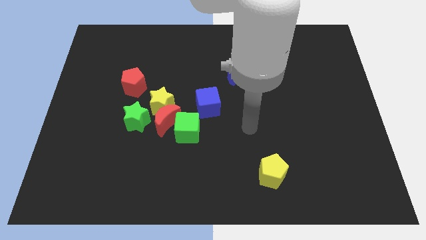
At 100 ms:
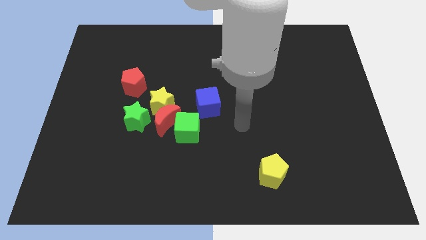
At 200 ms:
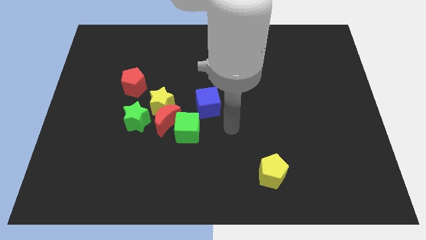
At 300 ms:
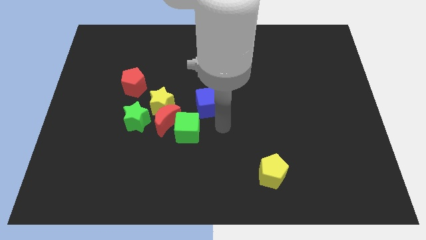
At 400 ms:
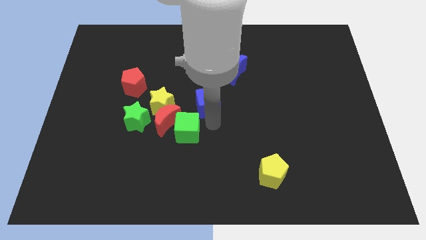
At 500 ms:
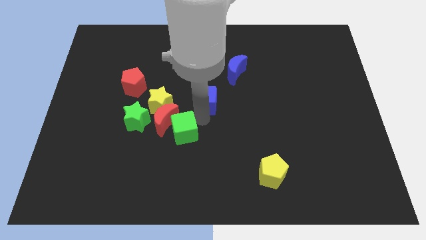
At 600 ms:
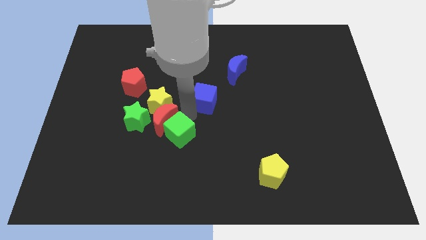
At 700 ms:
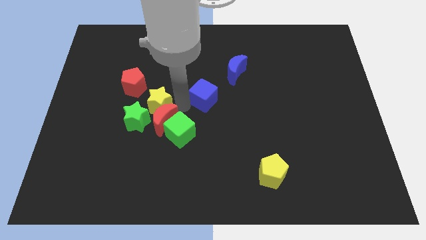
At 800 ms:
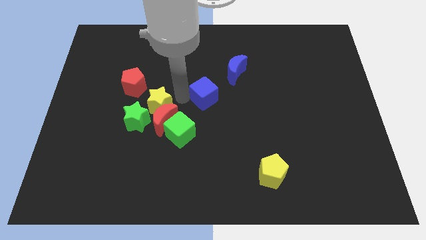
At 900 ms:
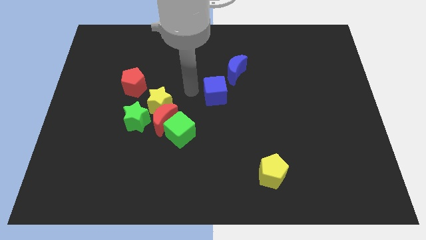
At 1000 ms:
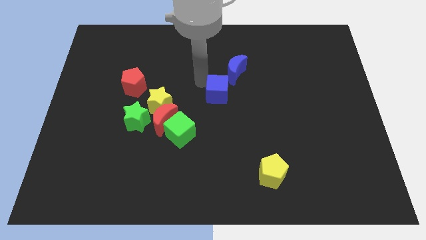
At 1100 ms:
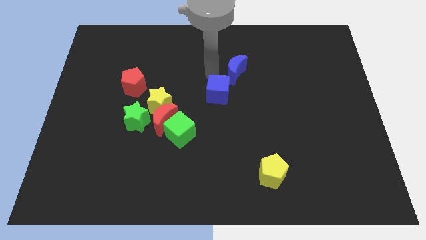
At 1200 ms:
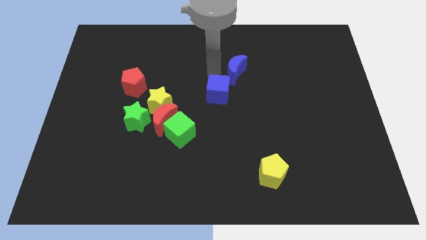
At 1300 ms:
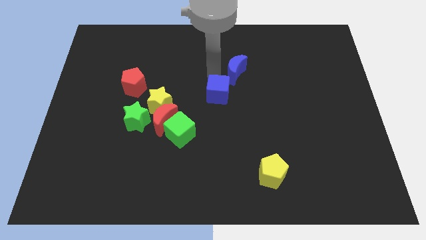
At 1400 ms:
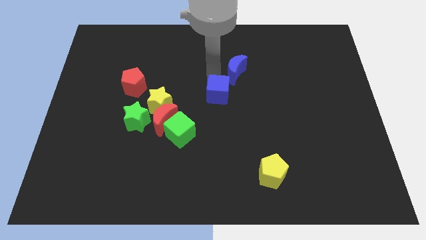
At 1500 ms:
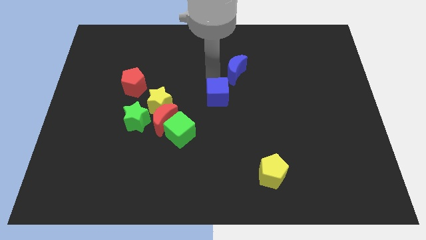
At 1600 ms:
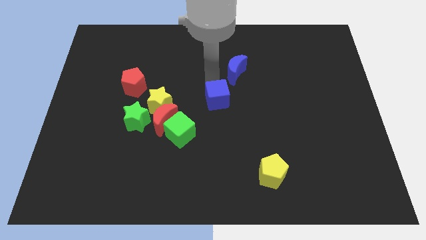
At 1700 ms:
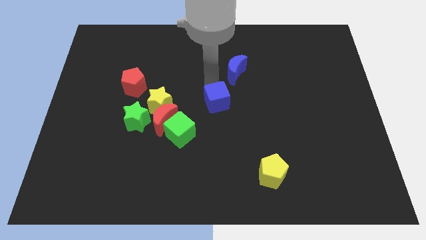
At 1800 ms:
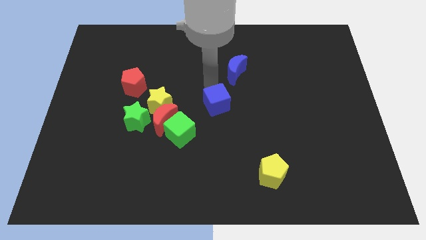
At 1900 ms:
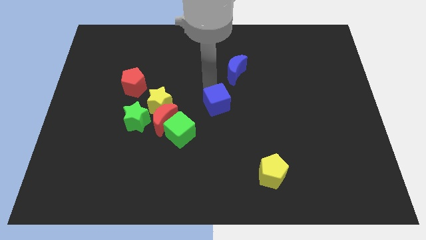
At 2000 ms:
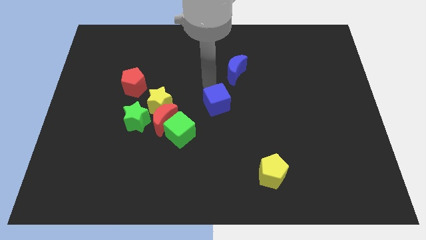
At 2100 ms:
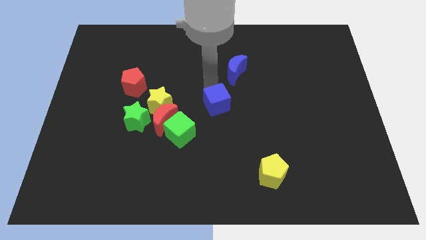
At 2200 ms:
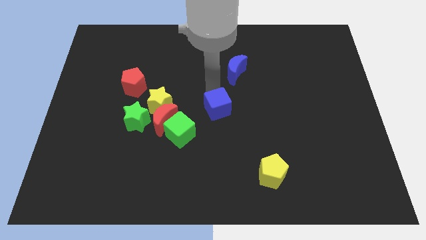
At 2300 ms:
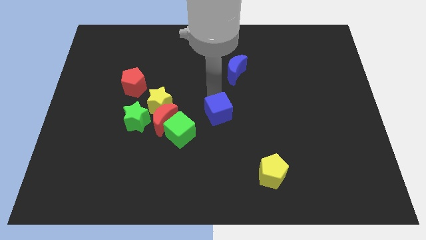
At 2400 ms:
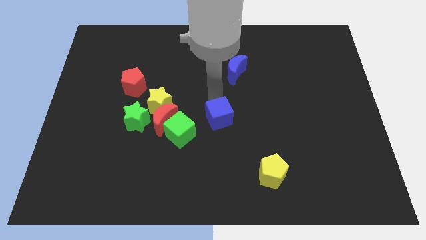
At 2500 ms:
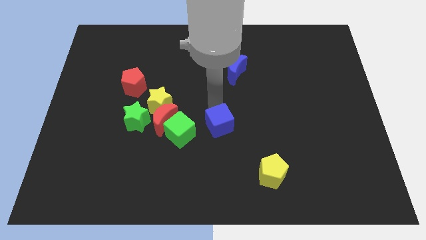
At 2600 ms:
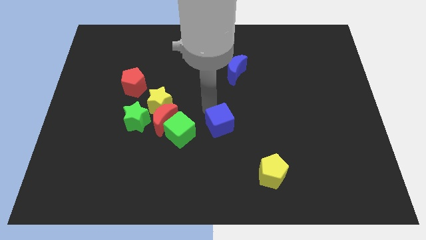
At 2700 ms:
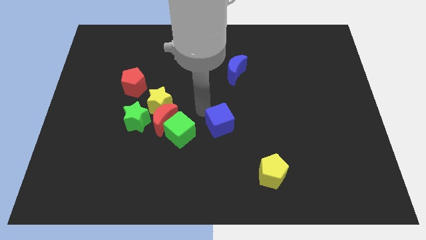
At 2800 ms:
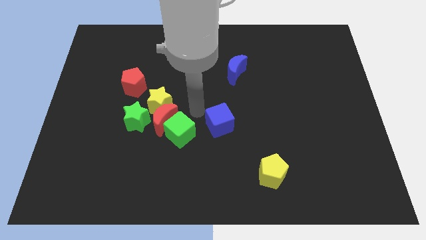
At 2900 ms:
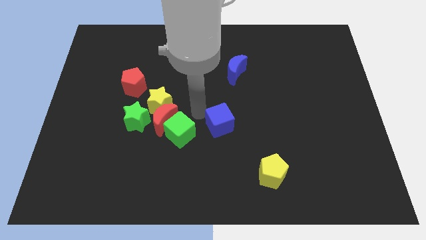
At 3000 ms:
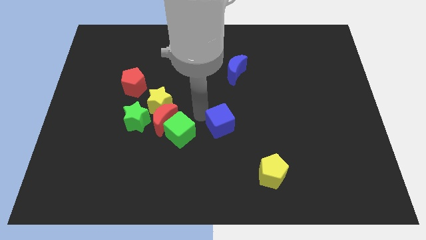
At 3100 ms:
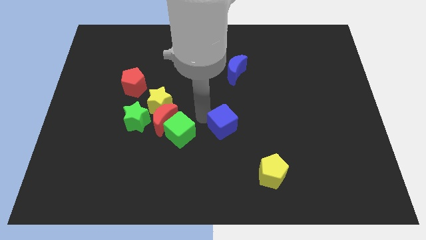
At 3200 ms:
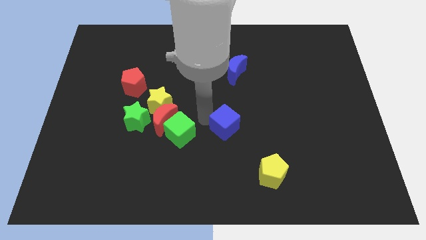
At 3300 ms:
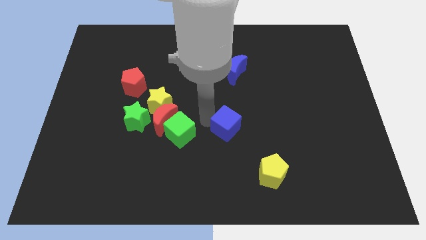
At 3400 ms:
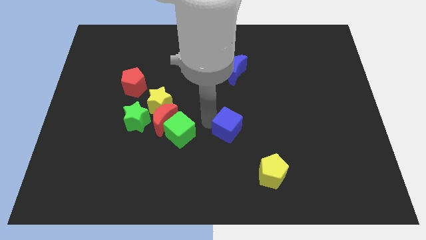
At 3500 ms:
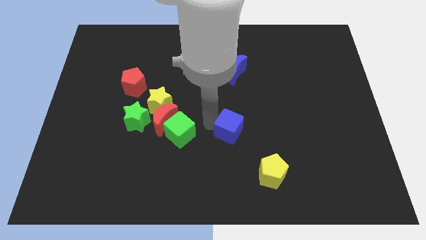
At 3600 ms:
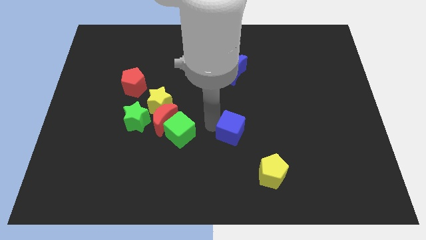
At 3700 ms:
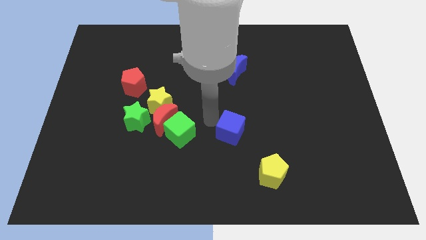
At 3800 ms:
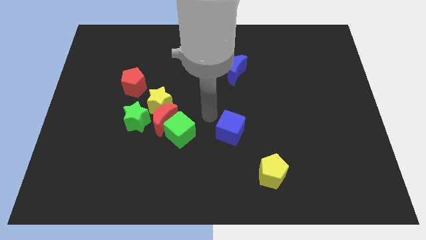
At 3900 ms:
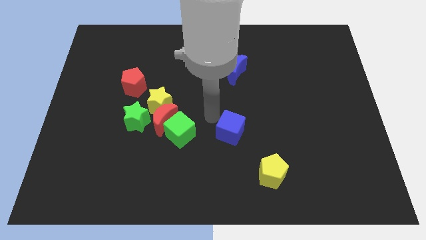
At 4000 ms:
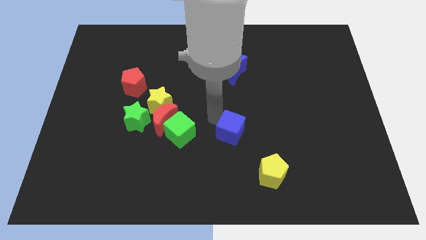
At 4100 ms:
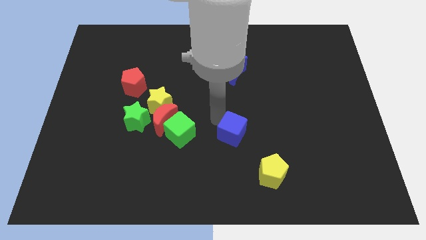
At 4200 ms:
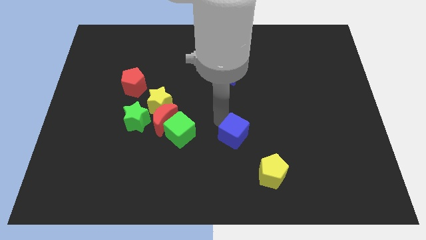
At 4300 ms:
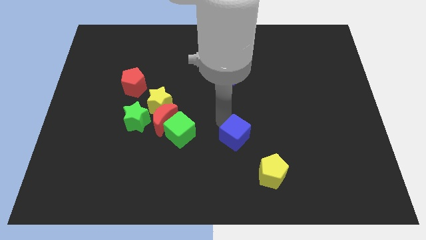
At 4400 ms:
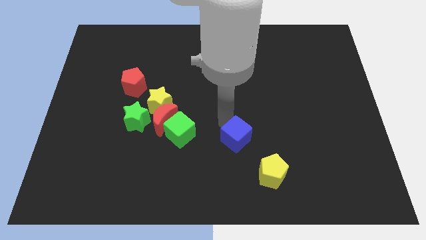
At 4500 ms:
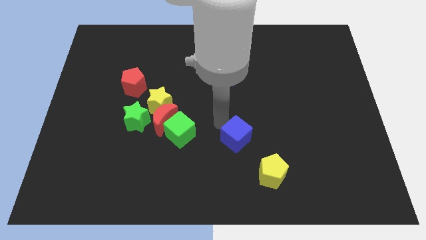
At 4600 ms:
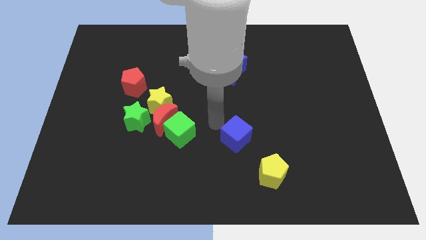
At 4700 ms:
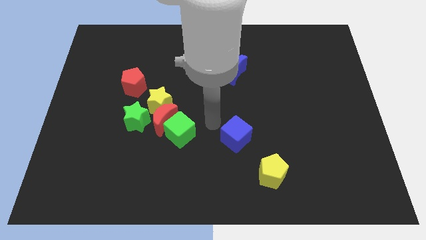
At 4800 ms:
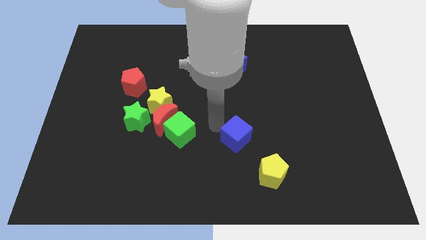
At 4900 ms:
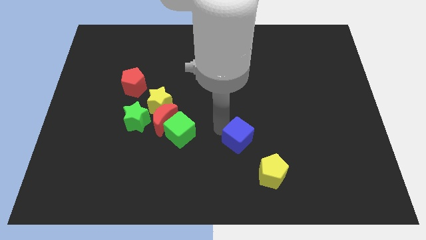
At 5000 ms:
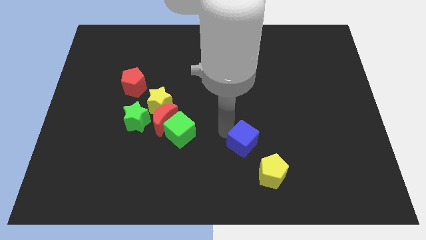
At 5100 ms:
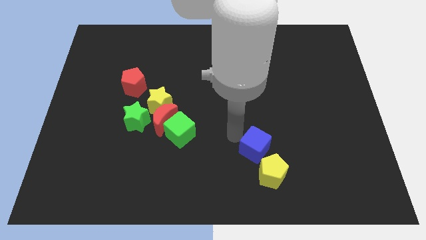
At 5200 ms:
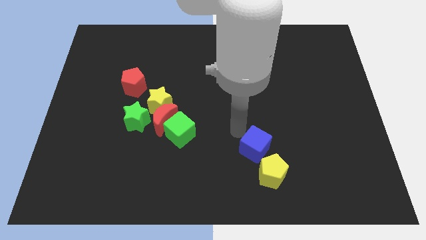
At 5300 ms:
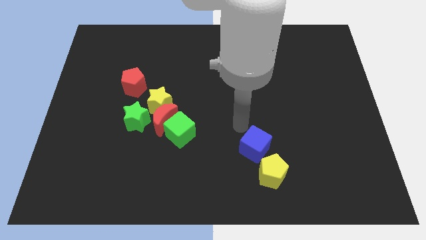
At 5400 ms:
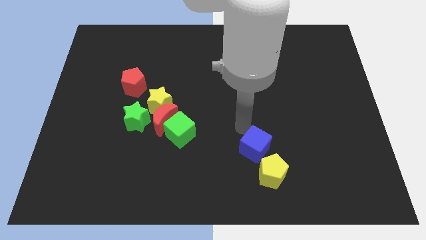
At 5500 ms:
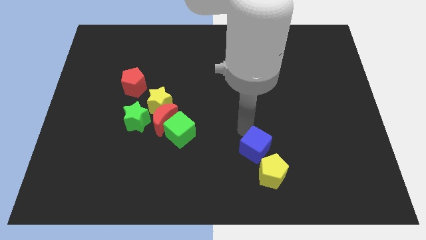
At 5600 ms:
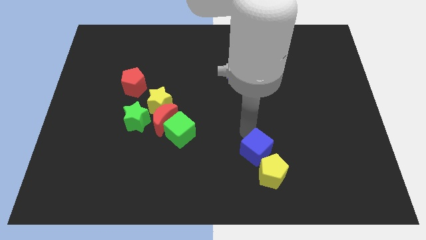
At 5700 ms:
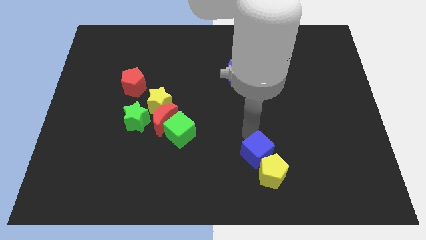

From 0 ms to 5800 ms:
push the blue cube close to the yellow pentagon
